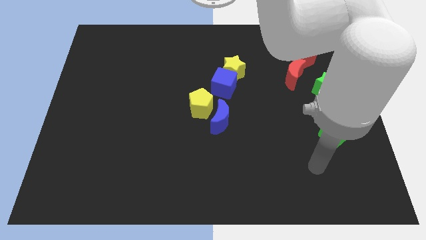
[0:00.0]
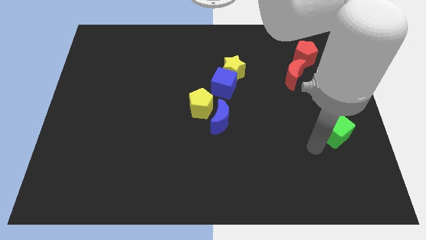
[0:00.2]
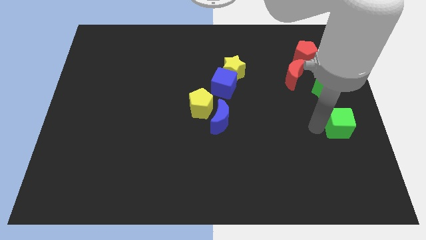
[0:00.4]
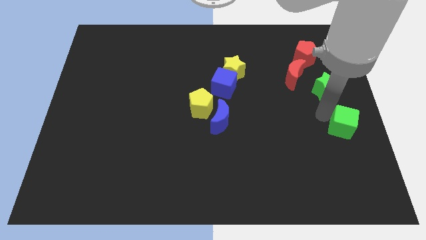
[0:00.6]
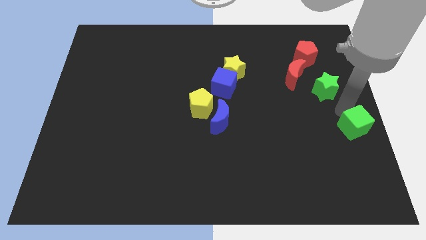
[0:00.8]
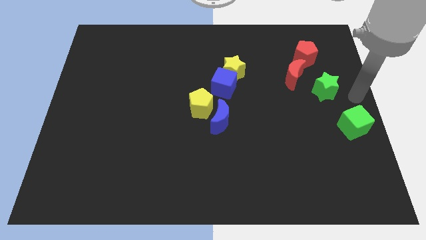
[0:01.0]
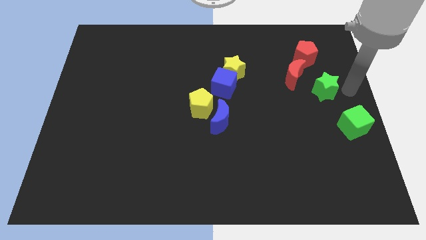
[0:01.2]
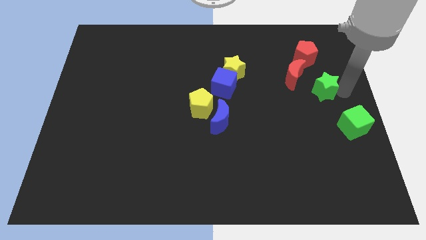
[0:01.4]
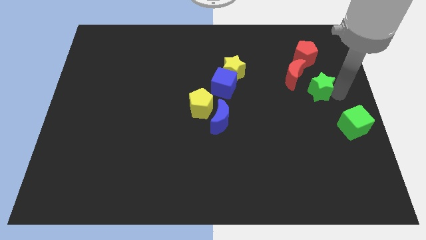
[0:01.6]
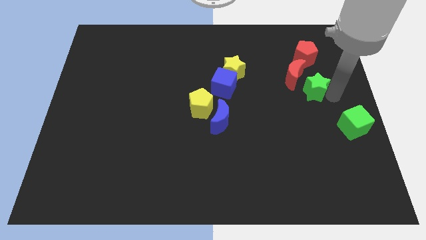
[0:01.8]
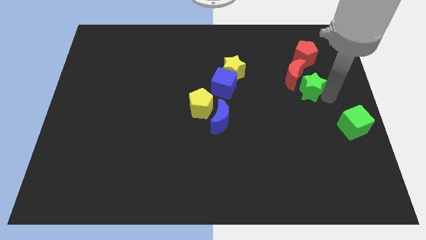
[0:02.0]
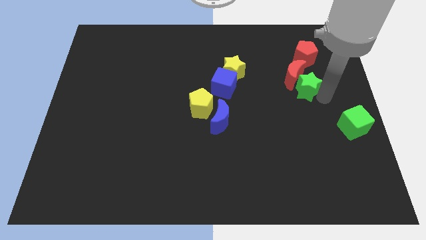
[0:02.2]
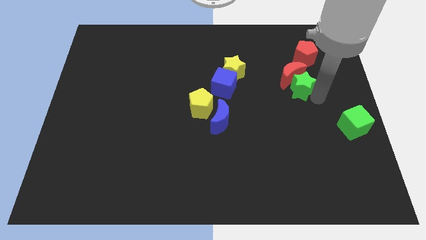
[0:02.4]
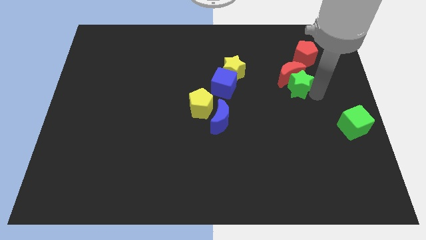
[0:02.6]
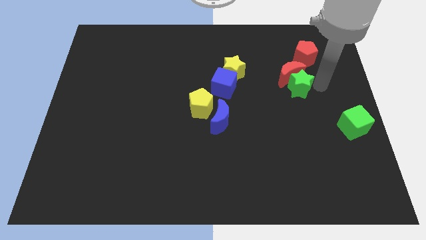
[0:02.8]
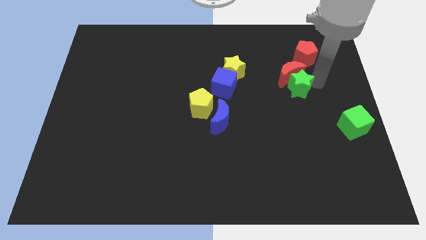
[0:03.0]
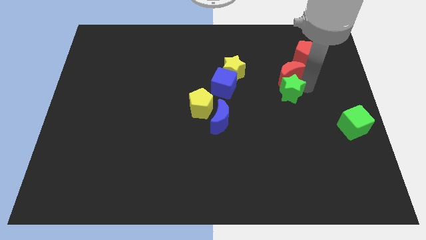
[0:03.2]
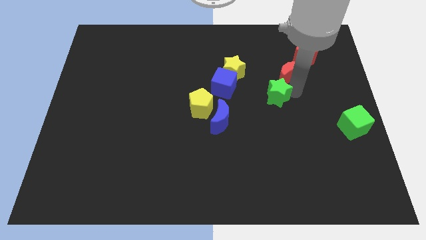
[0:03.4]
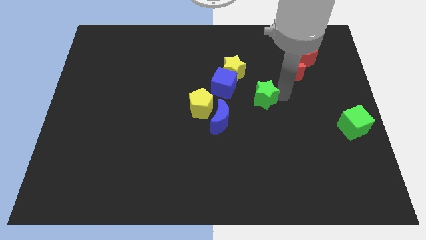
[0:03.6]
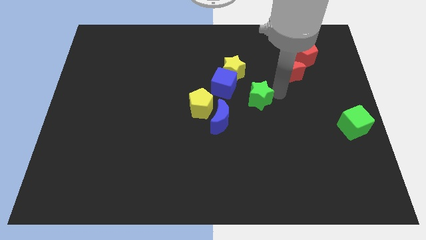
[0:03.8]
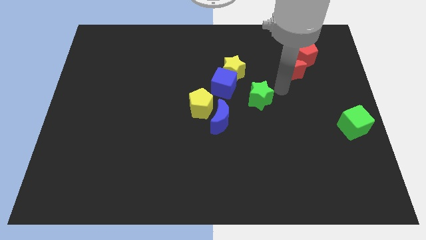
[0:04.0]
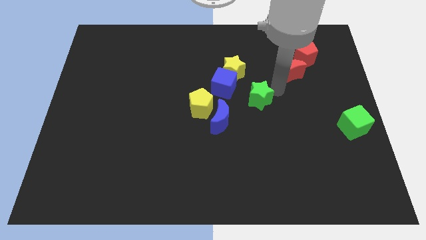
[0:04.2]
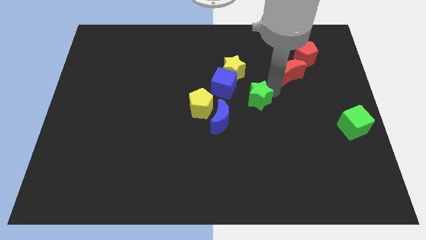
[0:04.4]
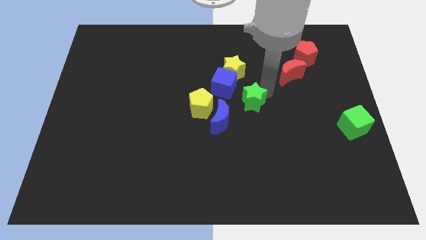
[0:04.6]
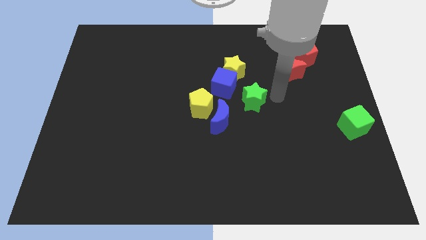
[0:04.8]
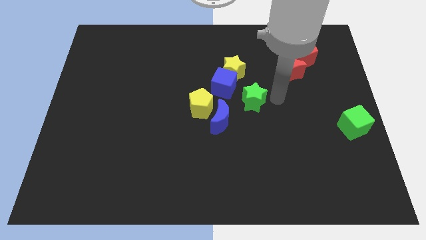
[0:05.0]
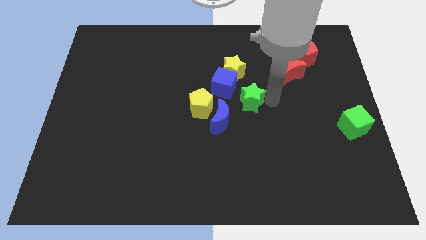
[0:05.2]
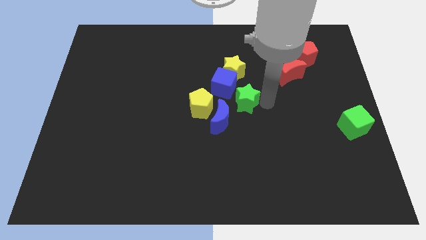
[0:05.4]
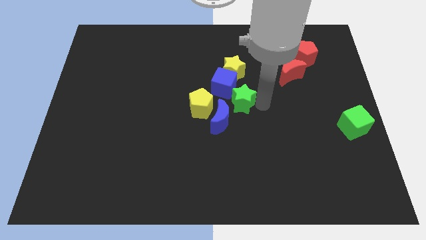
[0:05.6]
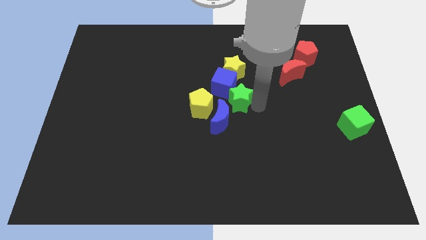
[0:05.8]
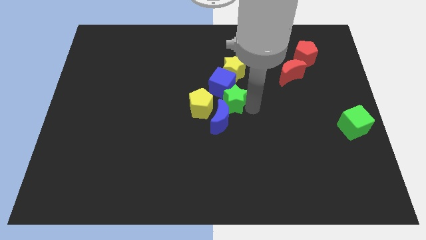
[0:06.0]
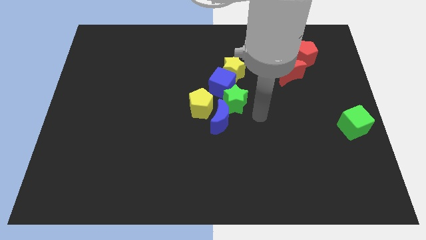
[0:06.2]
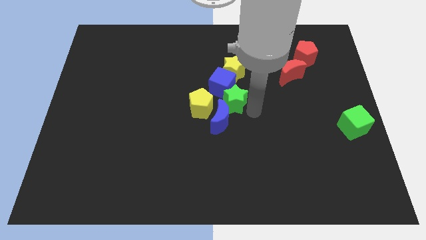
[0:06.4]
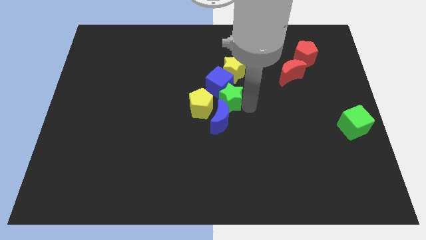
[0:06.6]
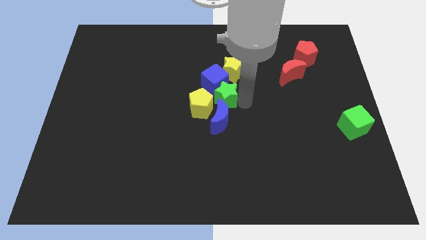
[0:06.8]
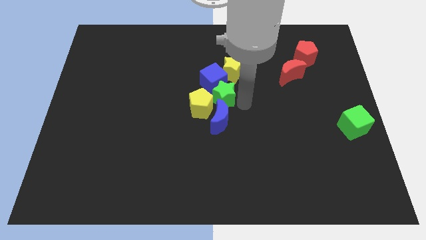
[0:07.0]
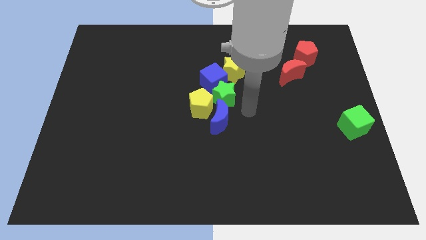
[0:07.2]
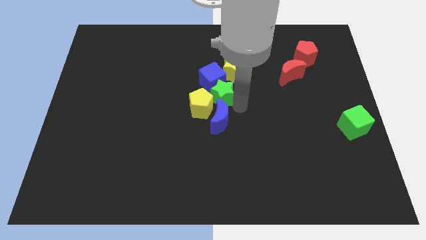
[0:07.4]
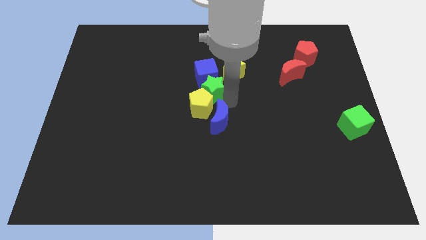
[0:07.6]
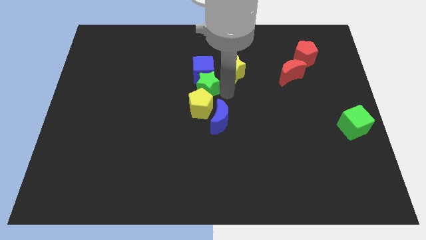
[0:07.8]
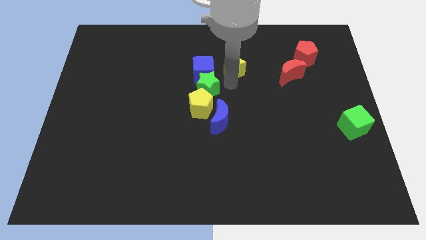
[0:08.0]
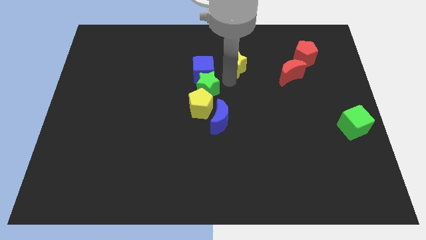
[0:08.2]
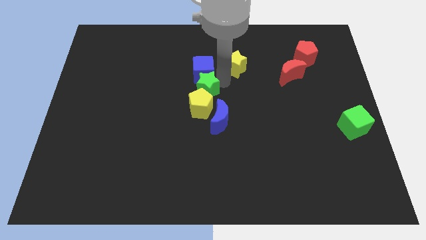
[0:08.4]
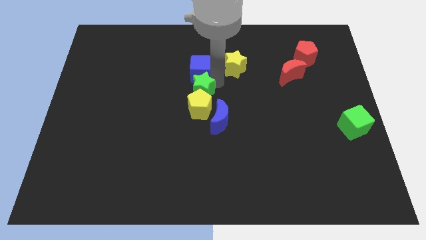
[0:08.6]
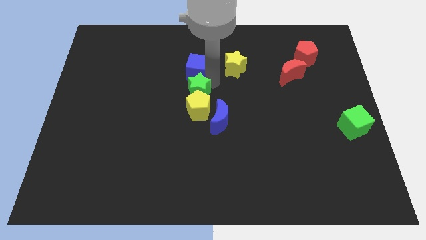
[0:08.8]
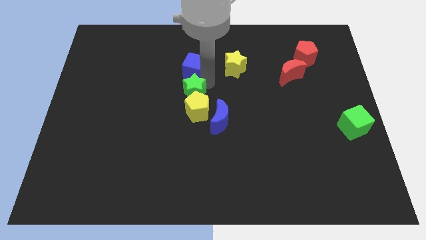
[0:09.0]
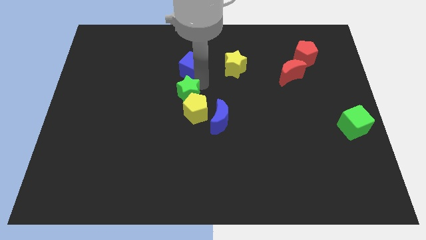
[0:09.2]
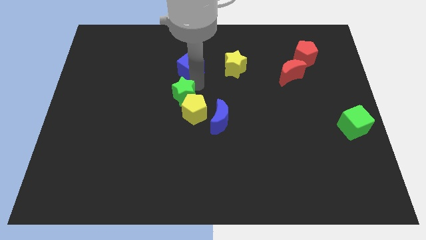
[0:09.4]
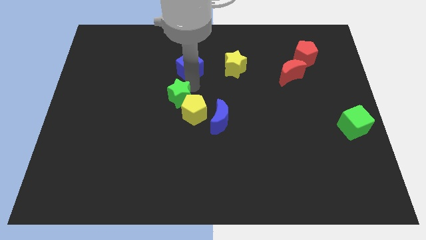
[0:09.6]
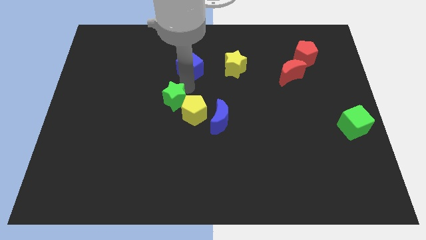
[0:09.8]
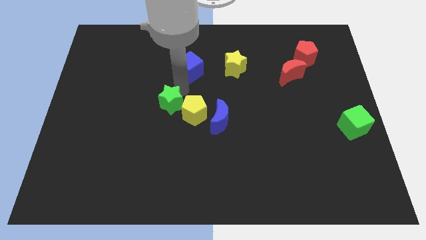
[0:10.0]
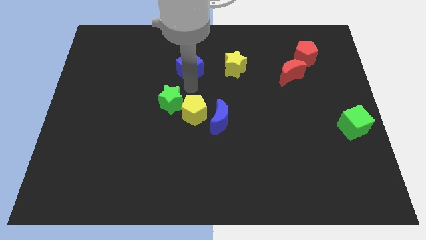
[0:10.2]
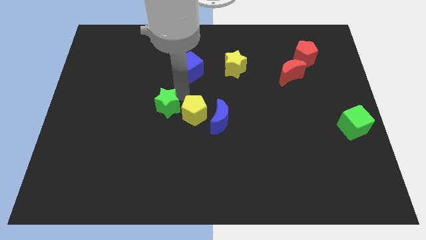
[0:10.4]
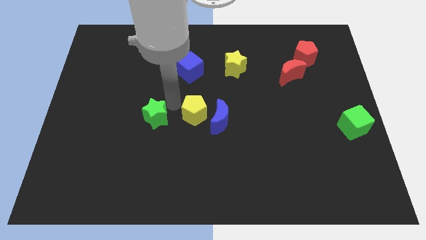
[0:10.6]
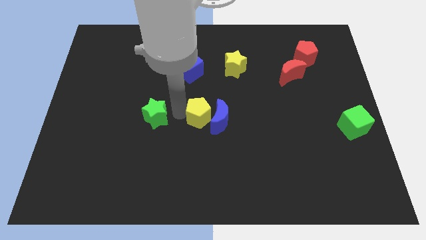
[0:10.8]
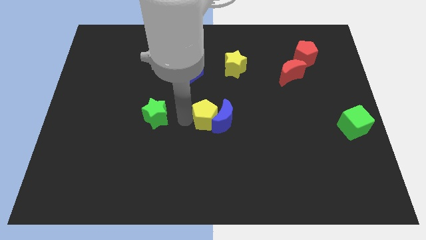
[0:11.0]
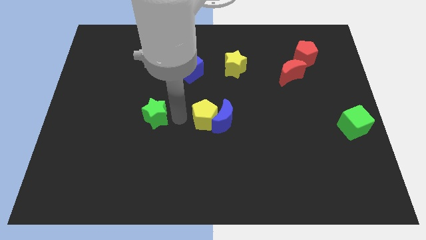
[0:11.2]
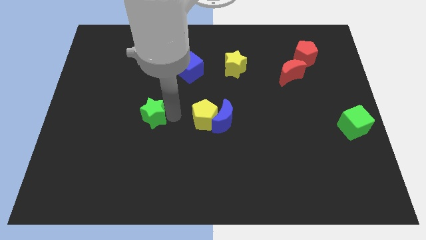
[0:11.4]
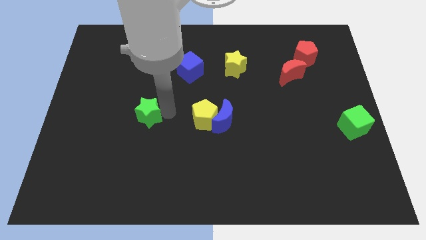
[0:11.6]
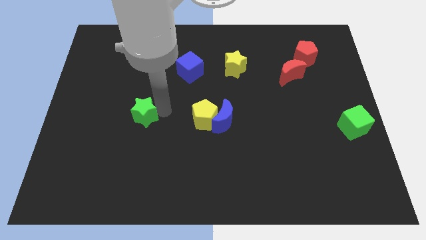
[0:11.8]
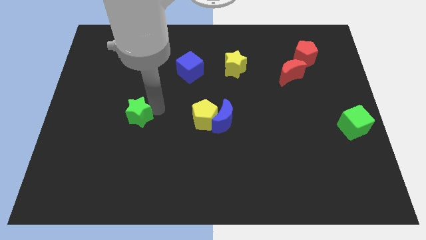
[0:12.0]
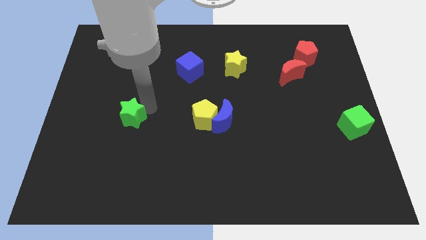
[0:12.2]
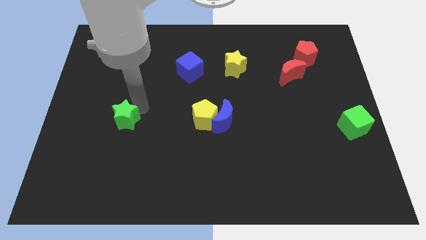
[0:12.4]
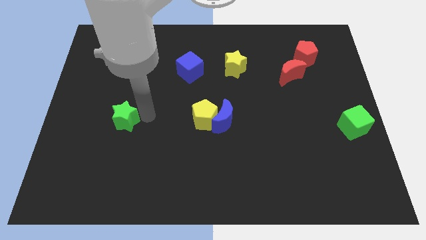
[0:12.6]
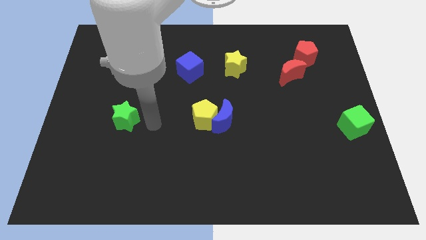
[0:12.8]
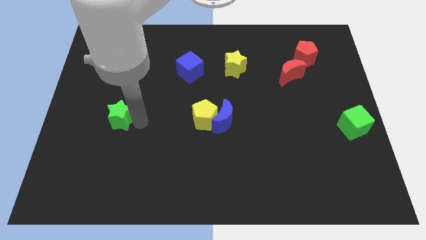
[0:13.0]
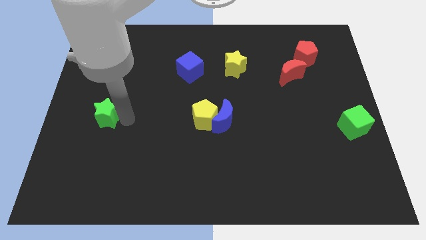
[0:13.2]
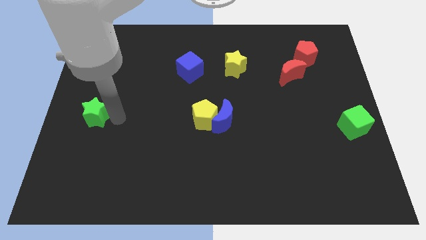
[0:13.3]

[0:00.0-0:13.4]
push the green star to the left side of the board

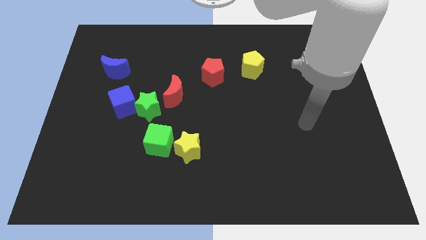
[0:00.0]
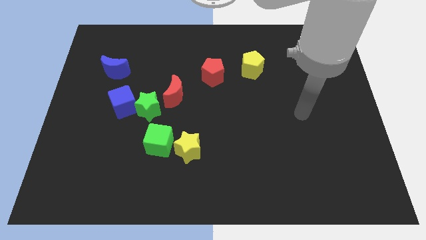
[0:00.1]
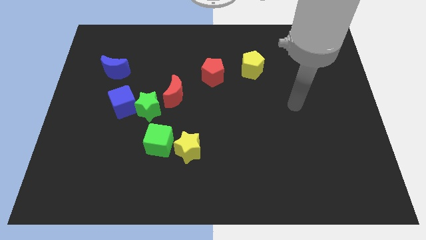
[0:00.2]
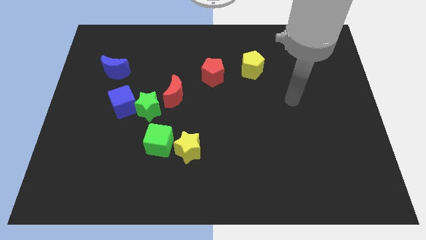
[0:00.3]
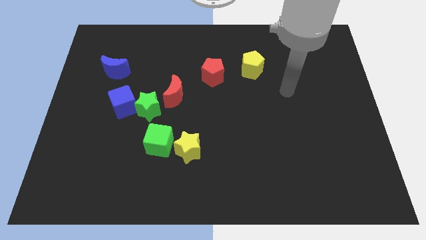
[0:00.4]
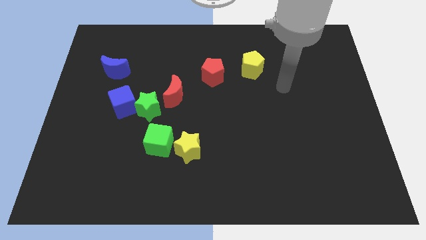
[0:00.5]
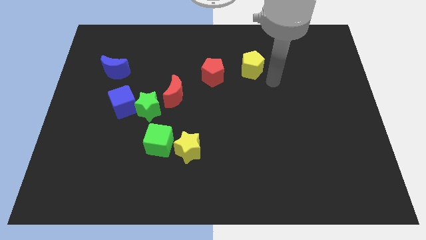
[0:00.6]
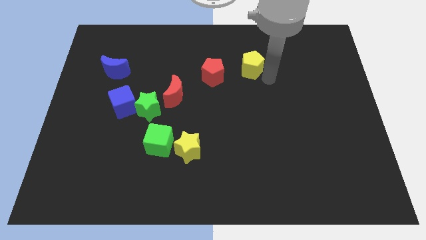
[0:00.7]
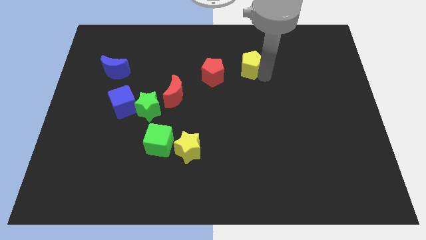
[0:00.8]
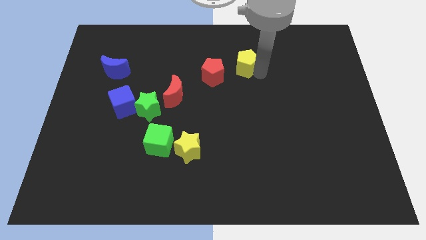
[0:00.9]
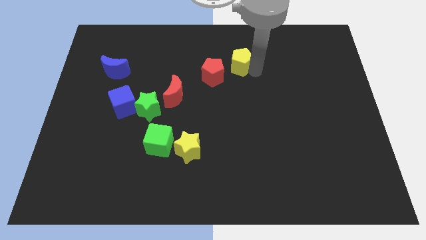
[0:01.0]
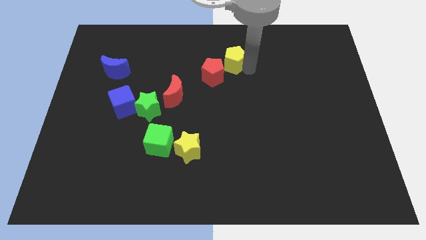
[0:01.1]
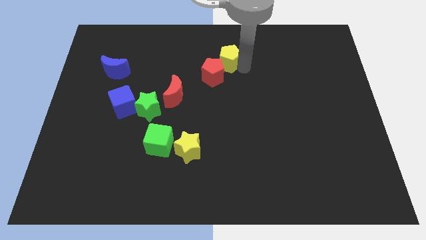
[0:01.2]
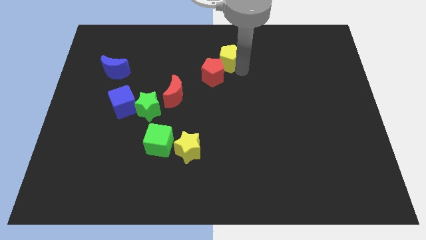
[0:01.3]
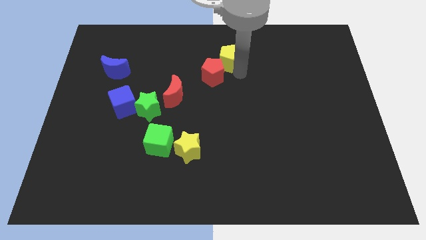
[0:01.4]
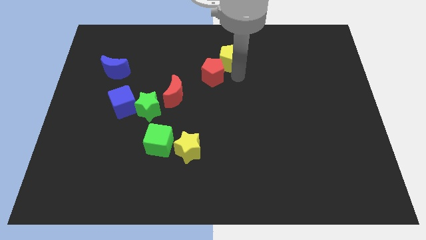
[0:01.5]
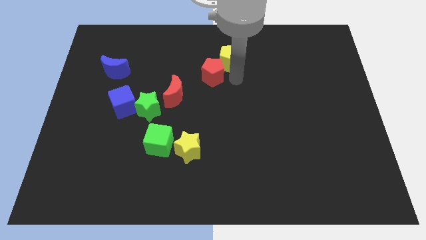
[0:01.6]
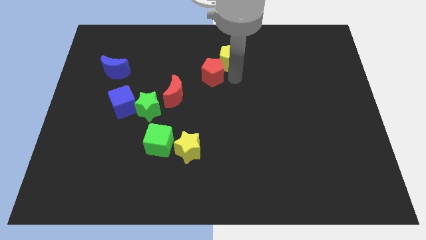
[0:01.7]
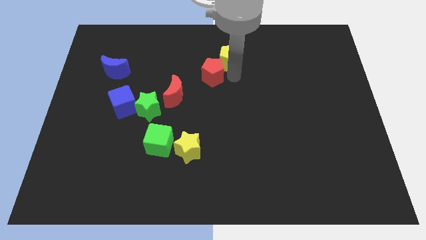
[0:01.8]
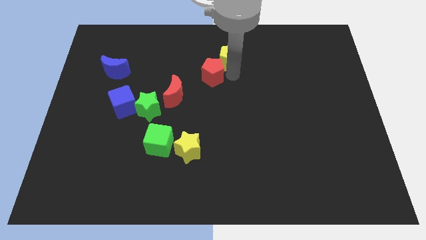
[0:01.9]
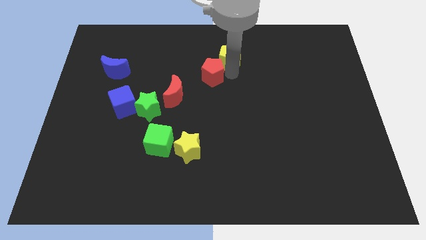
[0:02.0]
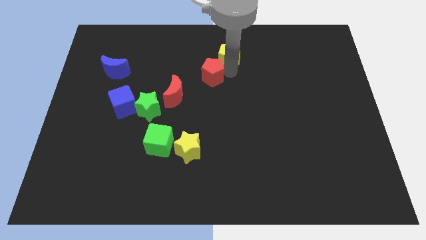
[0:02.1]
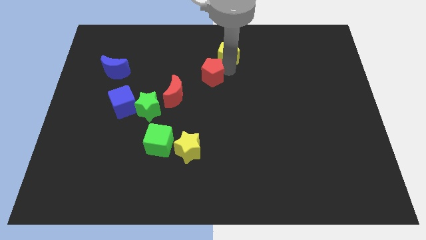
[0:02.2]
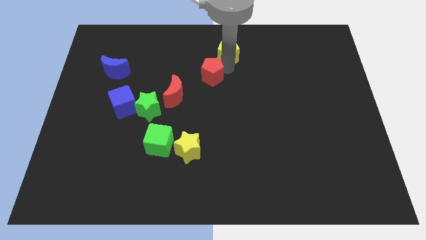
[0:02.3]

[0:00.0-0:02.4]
push the yellow pentagon to the towards your base
